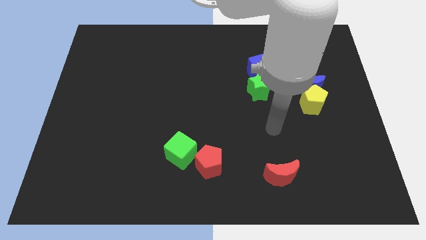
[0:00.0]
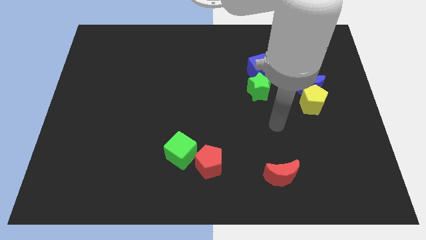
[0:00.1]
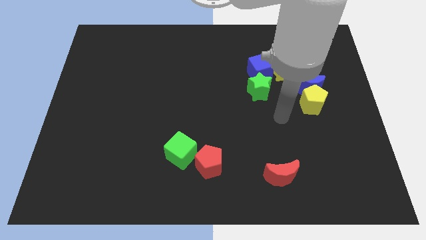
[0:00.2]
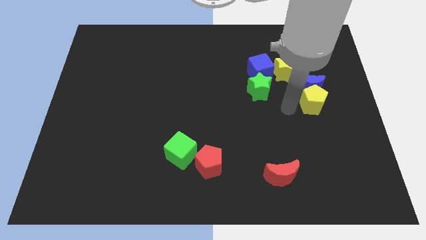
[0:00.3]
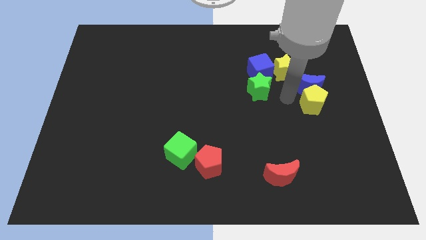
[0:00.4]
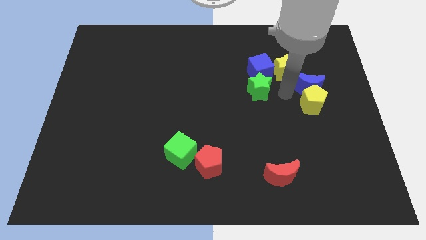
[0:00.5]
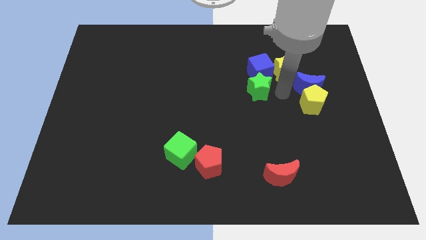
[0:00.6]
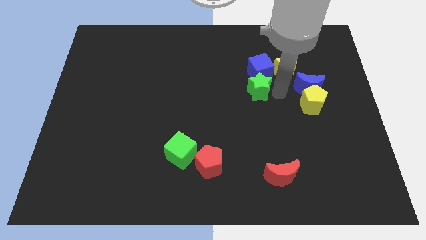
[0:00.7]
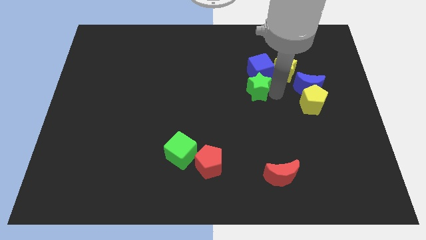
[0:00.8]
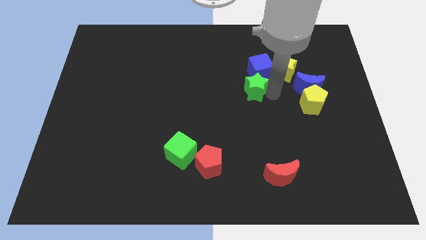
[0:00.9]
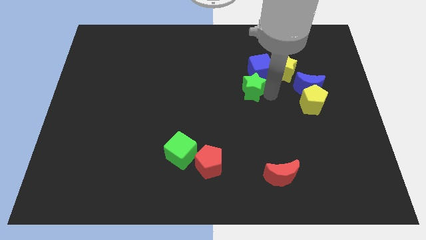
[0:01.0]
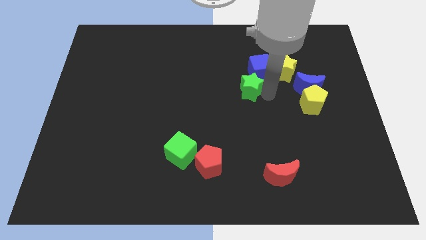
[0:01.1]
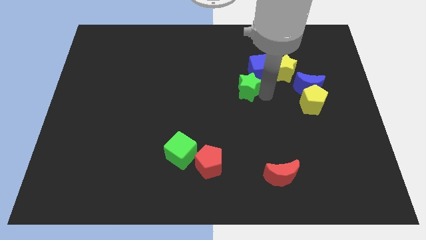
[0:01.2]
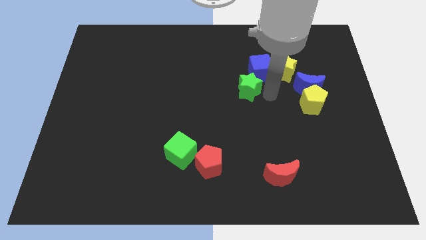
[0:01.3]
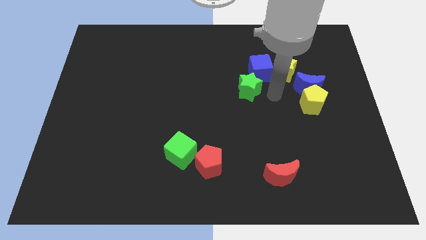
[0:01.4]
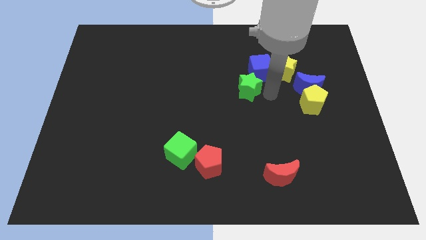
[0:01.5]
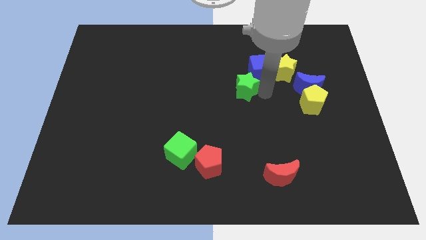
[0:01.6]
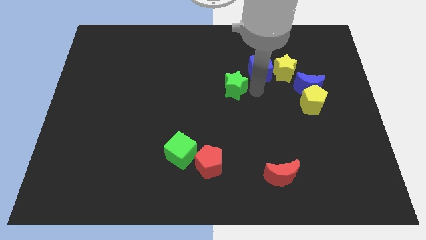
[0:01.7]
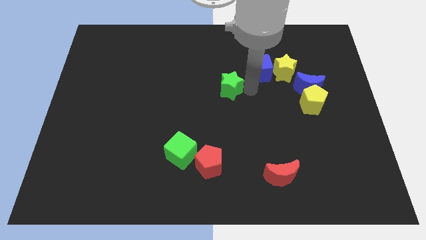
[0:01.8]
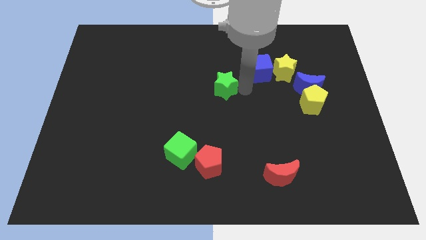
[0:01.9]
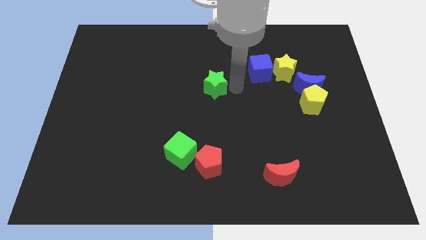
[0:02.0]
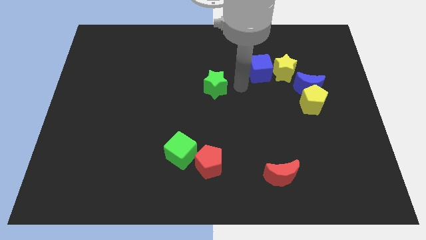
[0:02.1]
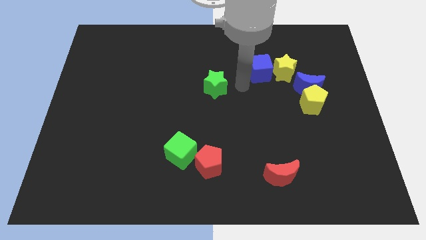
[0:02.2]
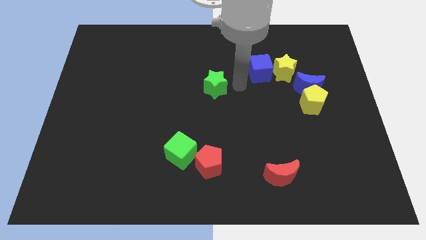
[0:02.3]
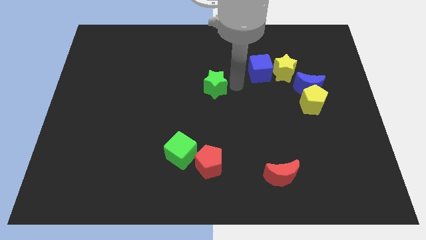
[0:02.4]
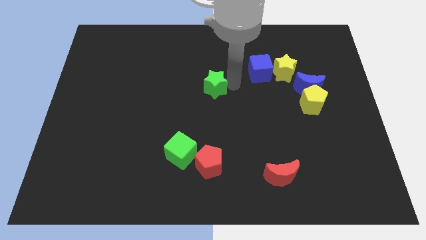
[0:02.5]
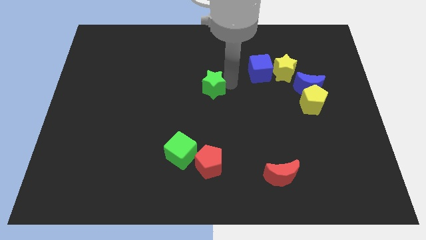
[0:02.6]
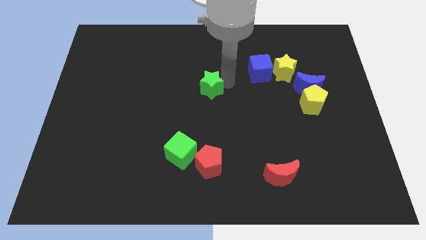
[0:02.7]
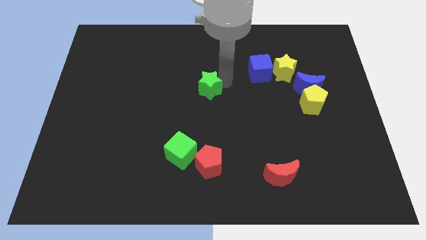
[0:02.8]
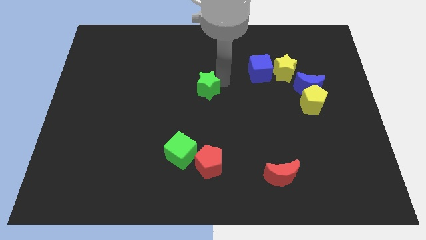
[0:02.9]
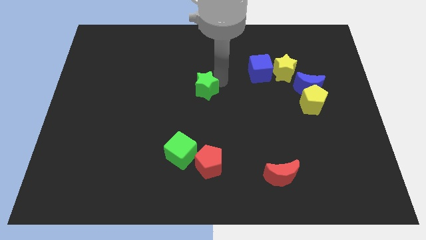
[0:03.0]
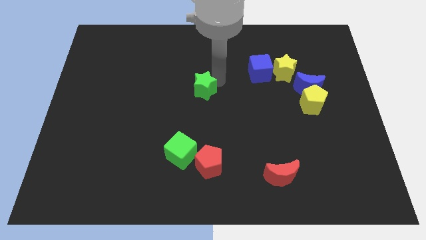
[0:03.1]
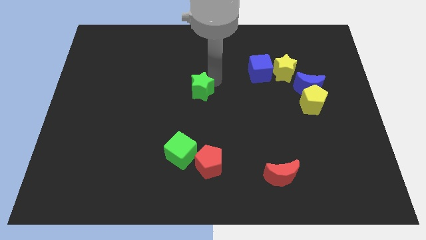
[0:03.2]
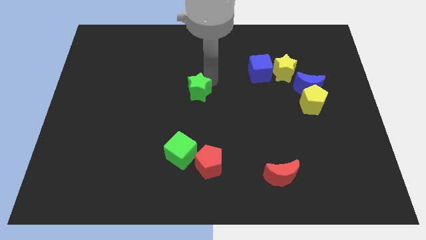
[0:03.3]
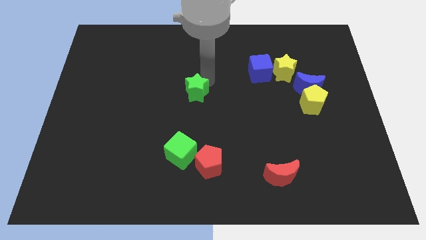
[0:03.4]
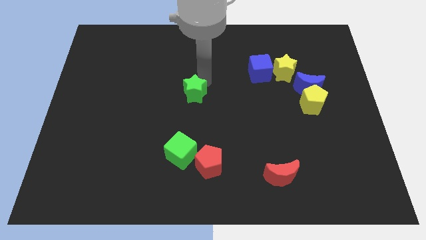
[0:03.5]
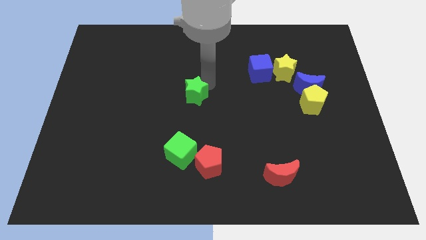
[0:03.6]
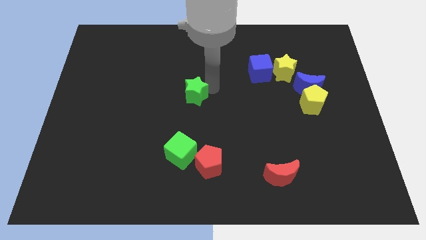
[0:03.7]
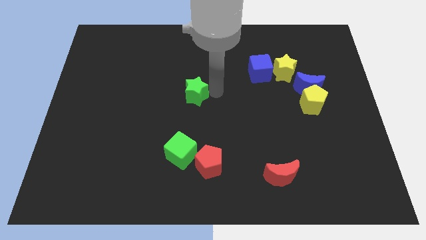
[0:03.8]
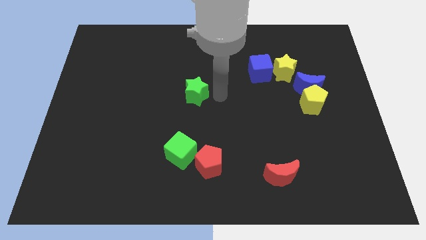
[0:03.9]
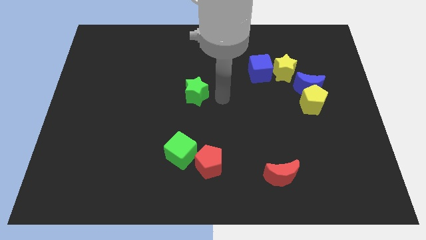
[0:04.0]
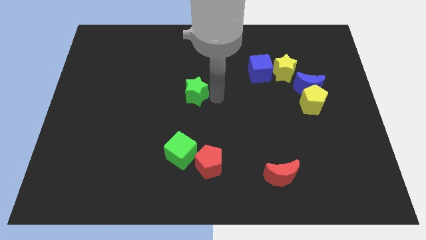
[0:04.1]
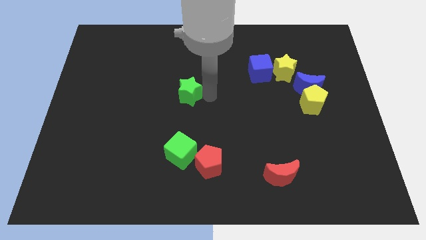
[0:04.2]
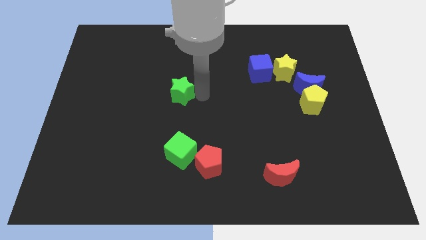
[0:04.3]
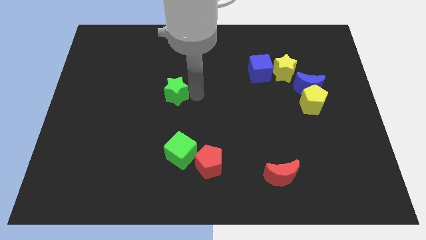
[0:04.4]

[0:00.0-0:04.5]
move the green star left

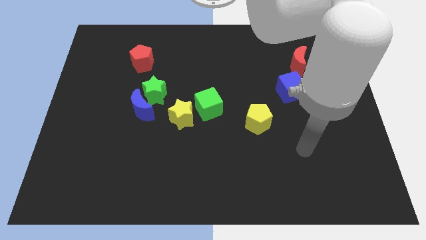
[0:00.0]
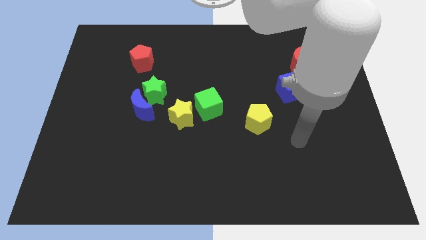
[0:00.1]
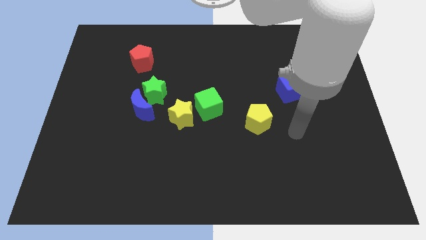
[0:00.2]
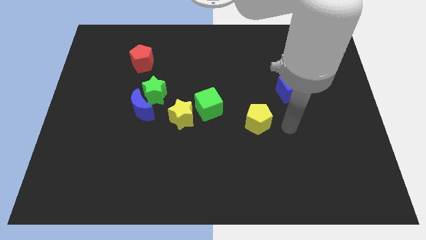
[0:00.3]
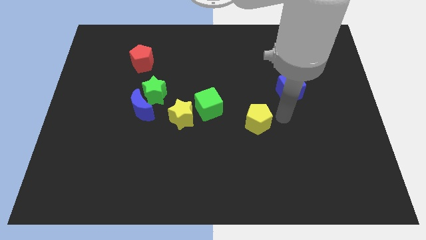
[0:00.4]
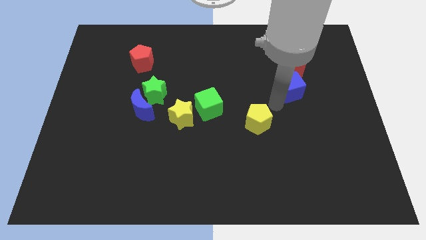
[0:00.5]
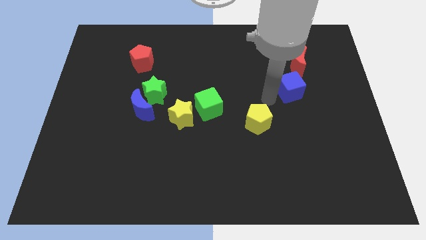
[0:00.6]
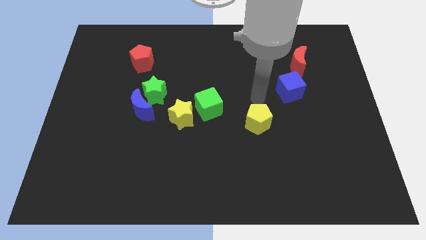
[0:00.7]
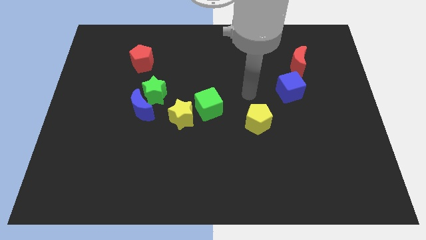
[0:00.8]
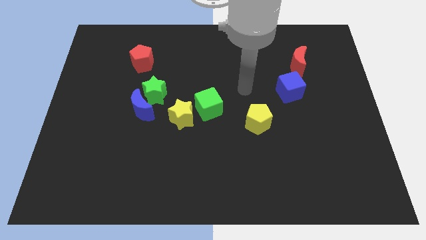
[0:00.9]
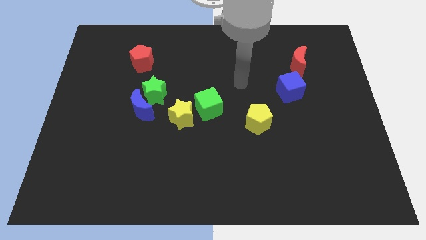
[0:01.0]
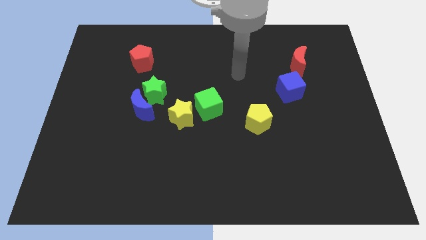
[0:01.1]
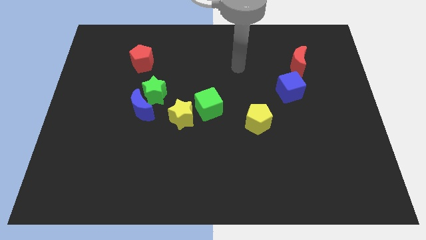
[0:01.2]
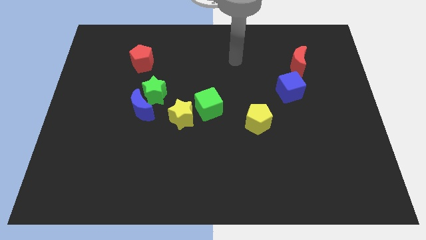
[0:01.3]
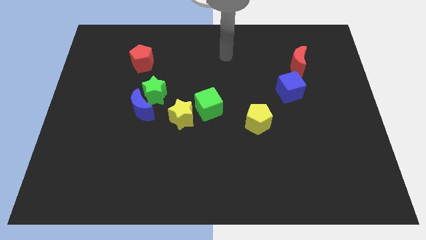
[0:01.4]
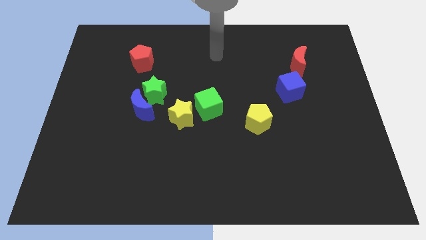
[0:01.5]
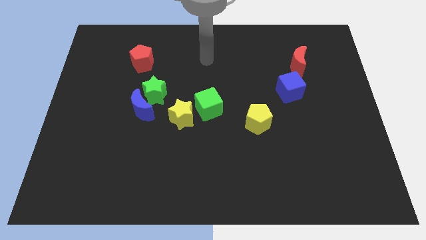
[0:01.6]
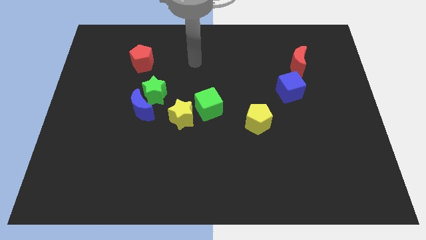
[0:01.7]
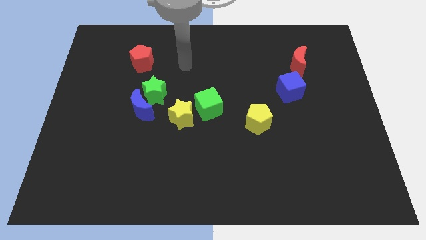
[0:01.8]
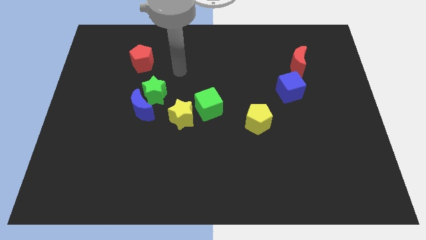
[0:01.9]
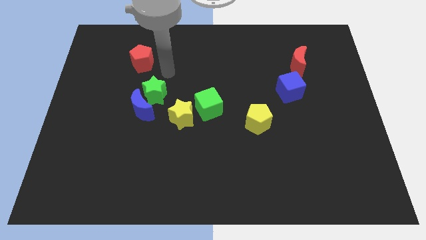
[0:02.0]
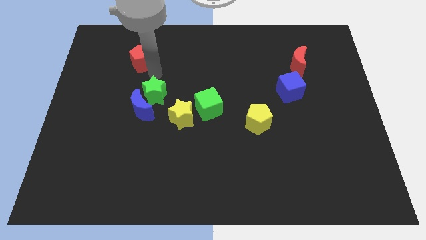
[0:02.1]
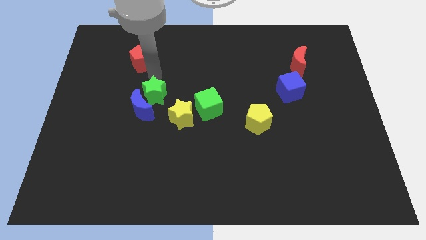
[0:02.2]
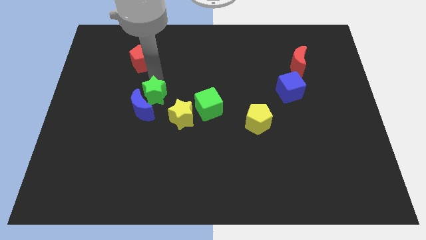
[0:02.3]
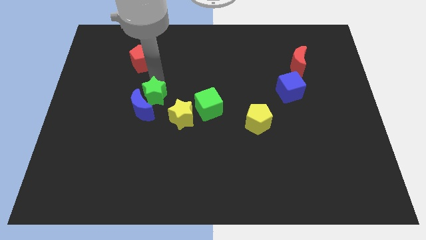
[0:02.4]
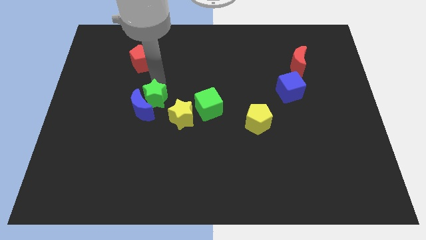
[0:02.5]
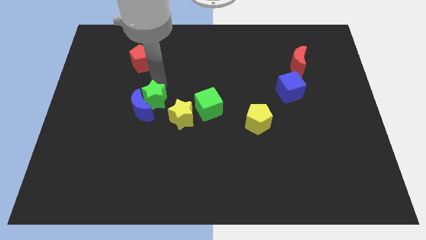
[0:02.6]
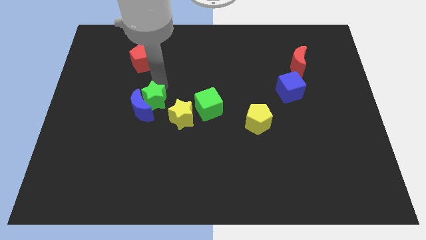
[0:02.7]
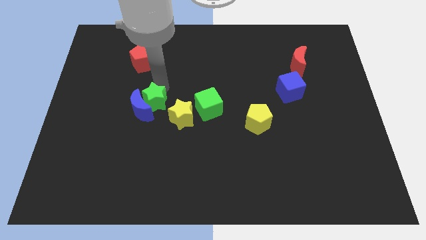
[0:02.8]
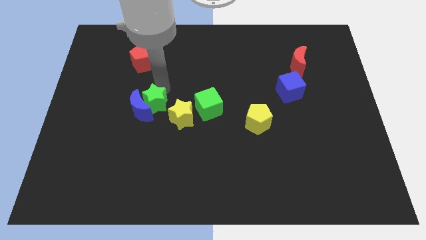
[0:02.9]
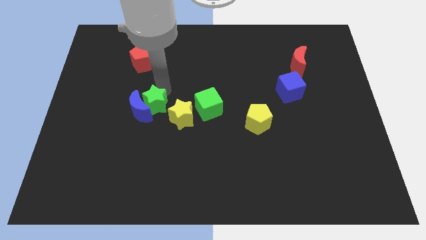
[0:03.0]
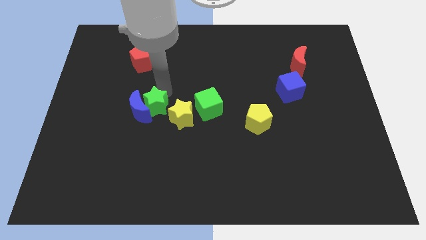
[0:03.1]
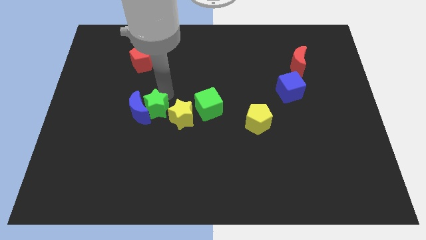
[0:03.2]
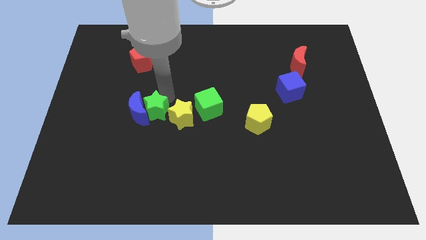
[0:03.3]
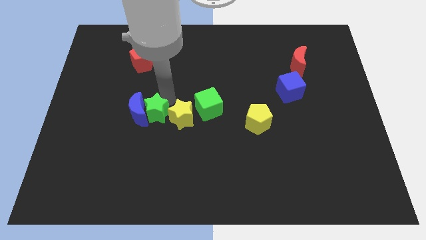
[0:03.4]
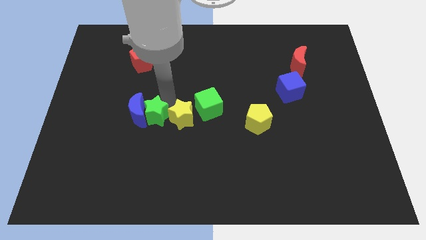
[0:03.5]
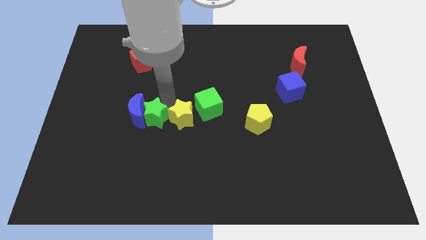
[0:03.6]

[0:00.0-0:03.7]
move the green star downwards a bit
